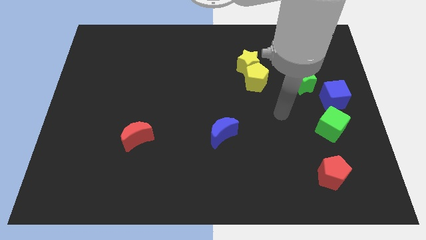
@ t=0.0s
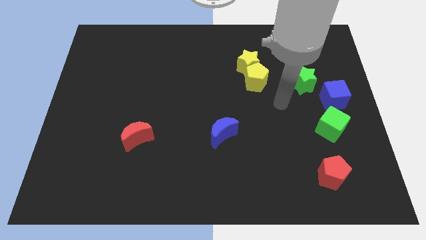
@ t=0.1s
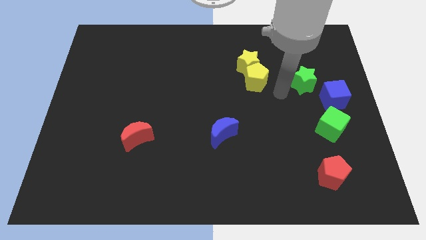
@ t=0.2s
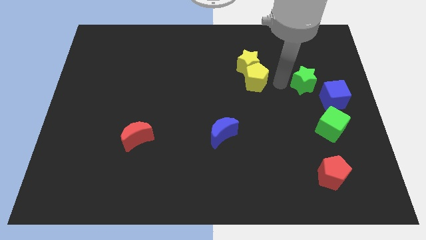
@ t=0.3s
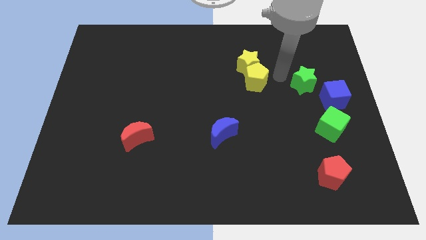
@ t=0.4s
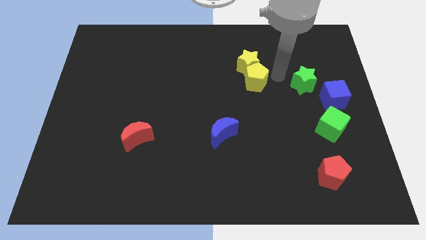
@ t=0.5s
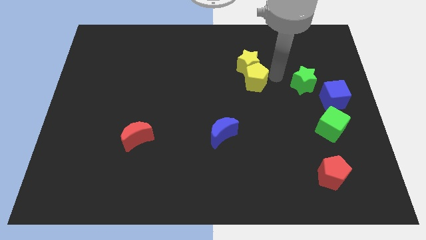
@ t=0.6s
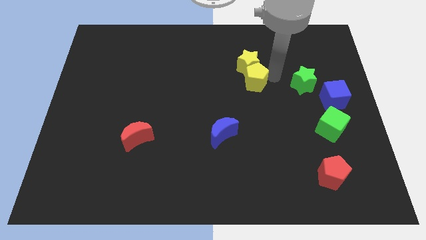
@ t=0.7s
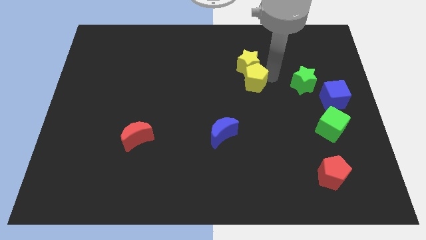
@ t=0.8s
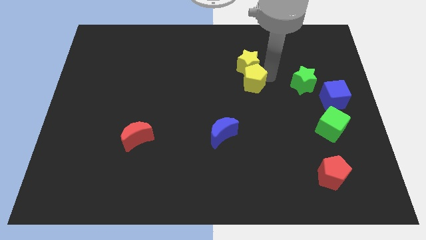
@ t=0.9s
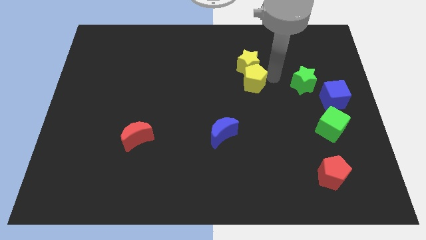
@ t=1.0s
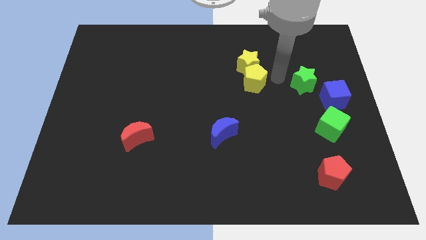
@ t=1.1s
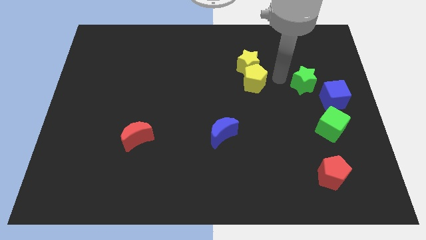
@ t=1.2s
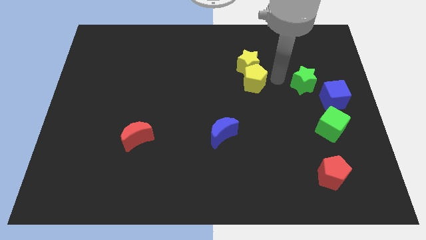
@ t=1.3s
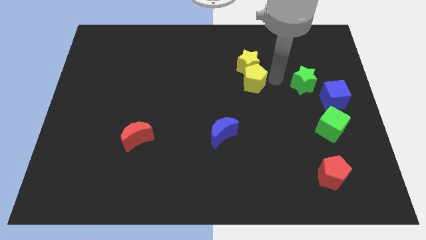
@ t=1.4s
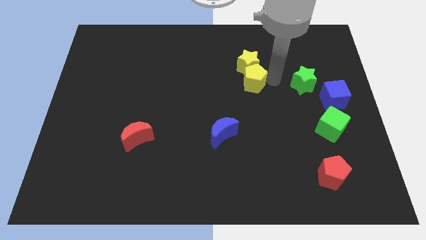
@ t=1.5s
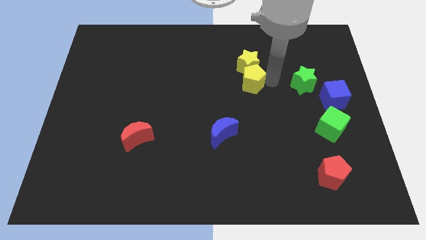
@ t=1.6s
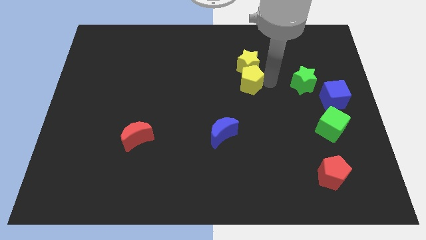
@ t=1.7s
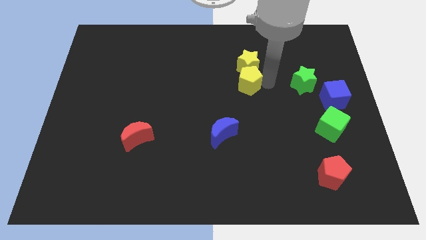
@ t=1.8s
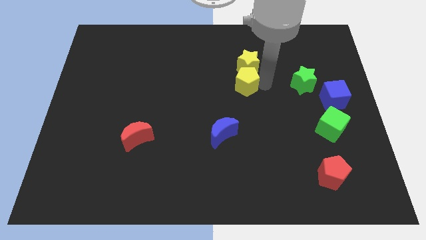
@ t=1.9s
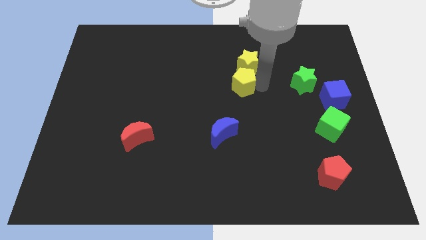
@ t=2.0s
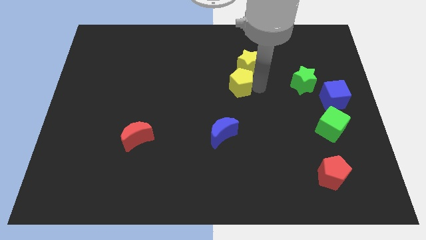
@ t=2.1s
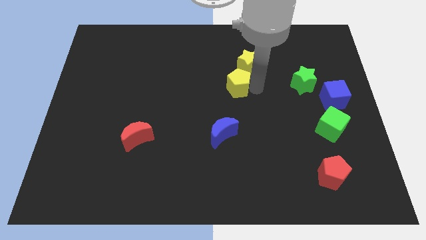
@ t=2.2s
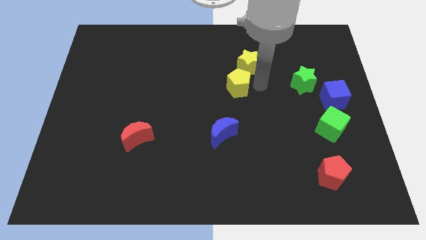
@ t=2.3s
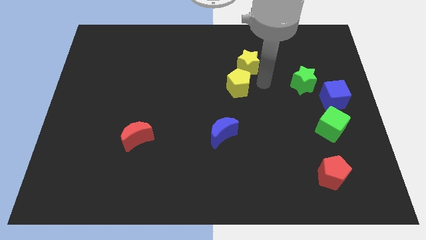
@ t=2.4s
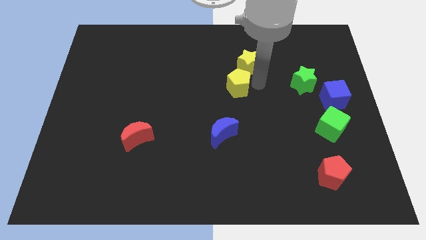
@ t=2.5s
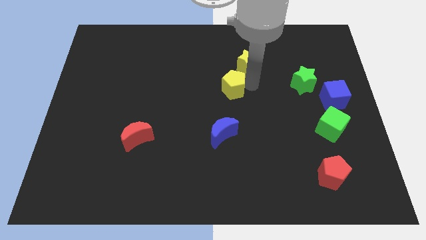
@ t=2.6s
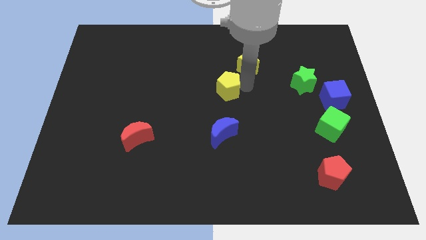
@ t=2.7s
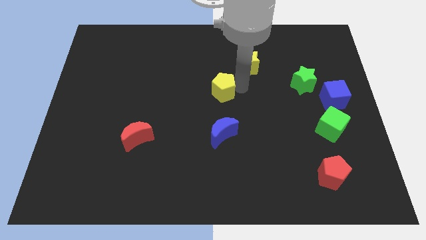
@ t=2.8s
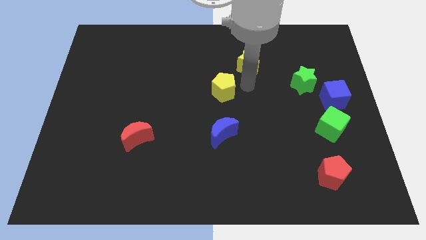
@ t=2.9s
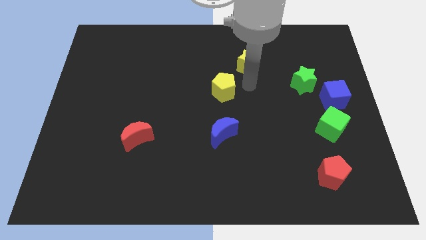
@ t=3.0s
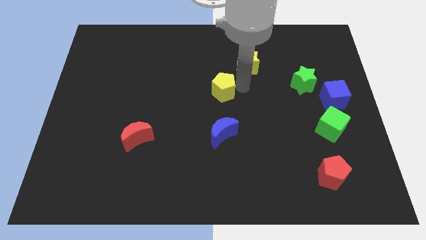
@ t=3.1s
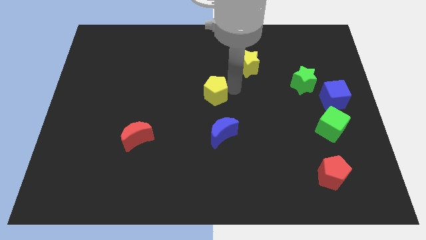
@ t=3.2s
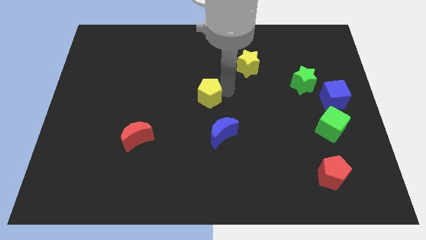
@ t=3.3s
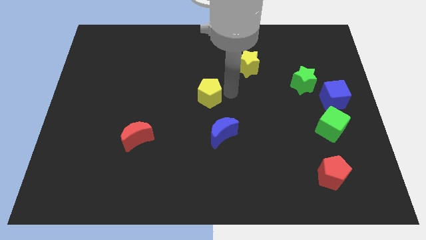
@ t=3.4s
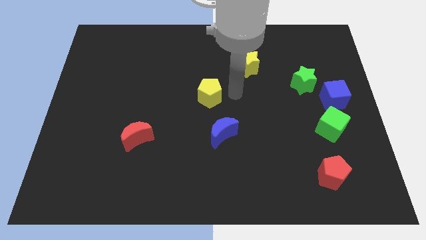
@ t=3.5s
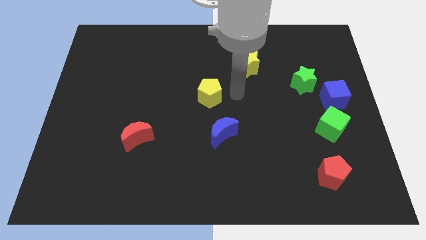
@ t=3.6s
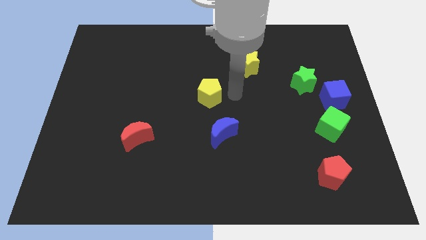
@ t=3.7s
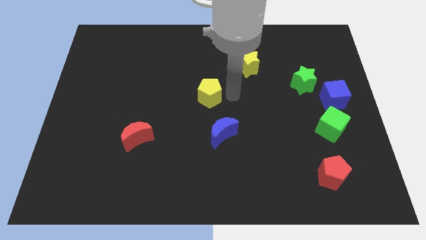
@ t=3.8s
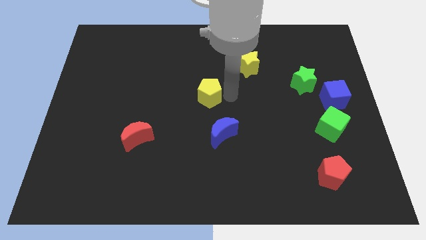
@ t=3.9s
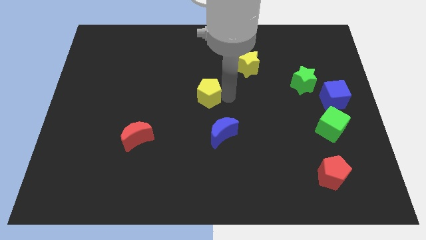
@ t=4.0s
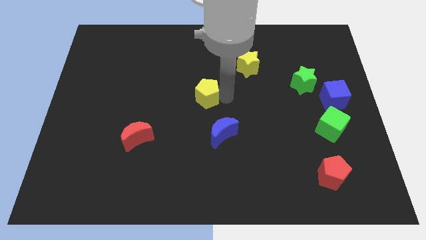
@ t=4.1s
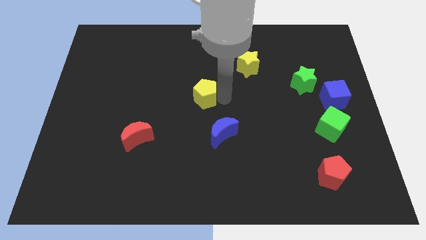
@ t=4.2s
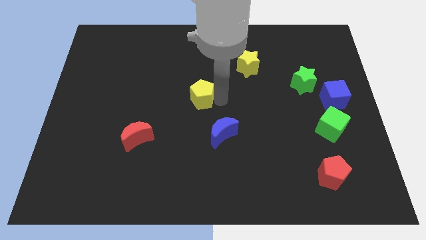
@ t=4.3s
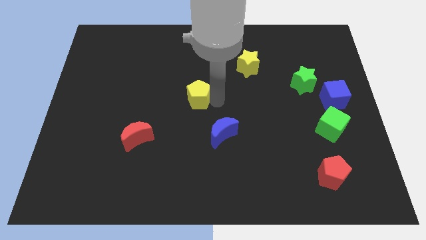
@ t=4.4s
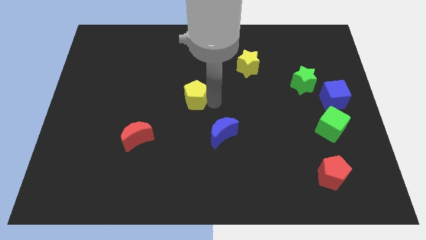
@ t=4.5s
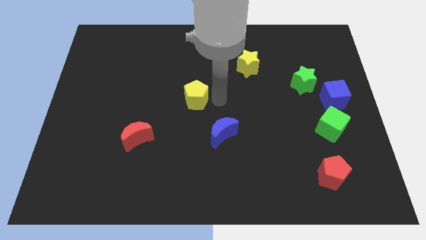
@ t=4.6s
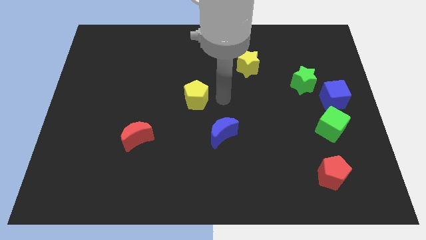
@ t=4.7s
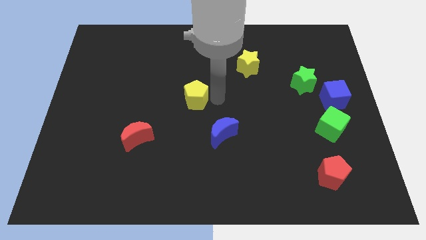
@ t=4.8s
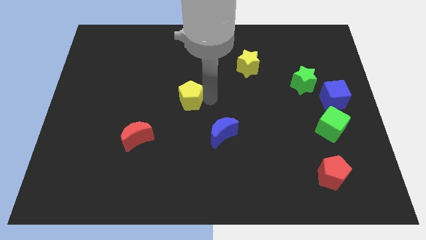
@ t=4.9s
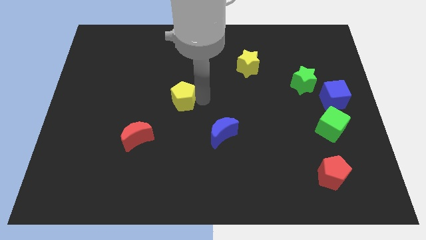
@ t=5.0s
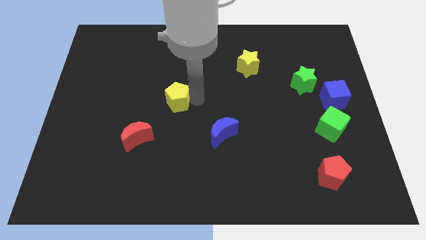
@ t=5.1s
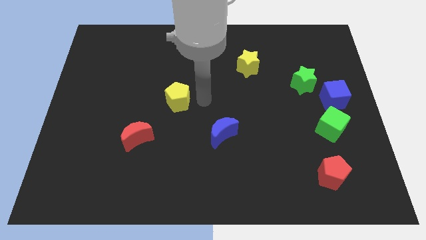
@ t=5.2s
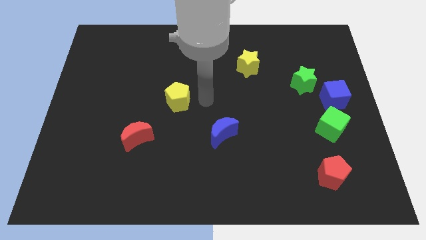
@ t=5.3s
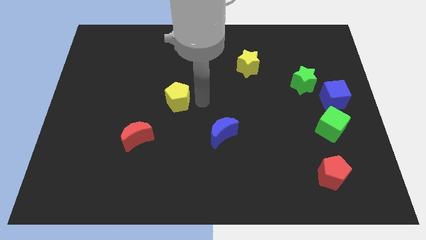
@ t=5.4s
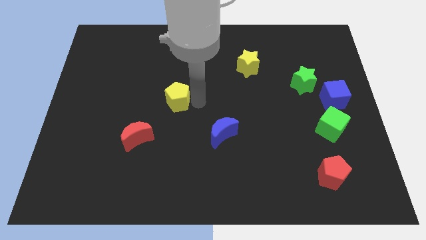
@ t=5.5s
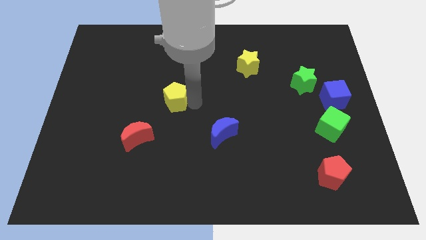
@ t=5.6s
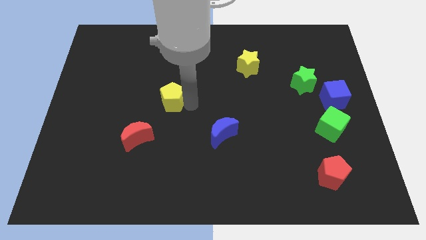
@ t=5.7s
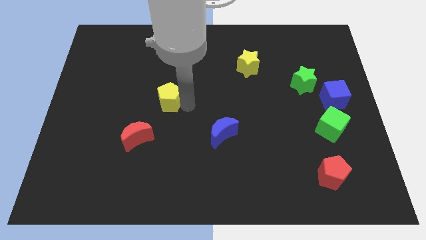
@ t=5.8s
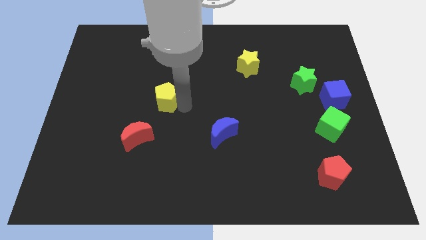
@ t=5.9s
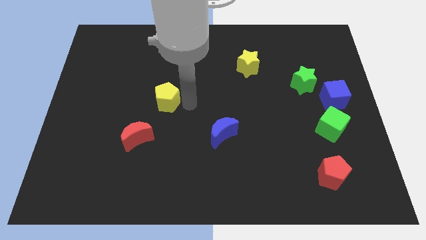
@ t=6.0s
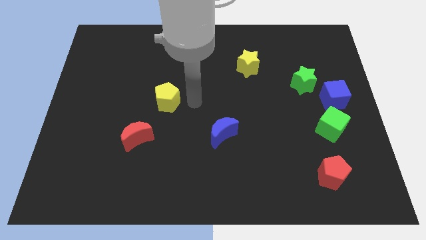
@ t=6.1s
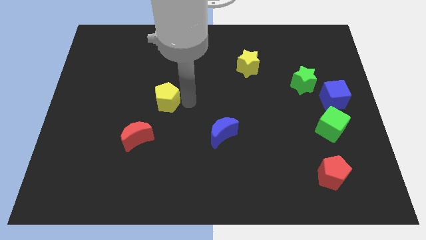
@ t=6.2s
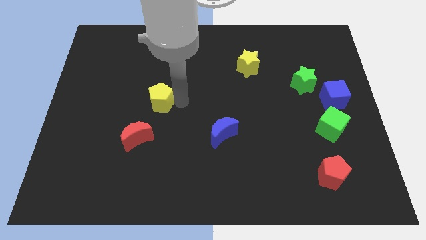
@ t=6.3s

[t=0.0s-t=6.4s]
slide the yellow pentagon to the top of the red moon

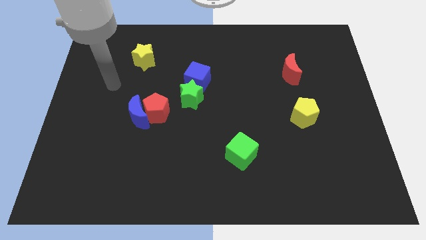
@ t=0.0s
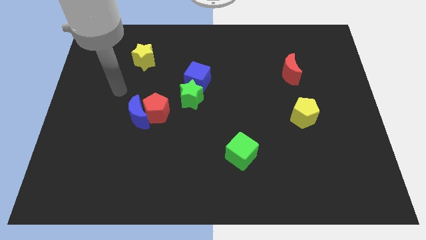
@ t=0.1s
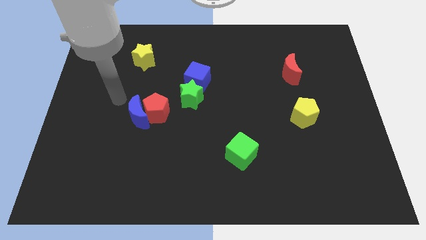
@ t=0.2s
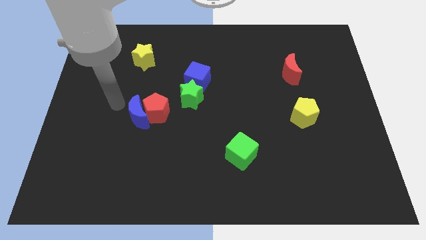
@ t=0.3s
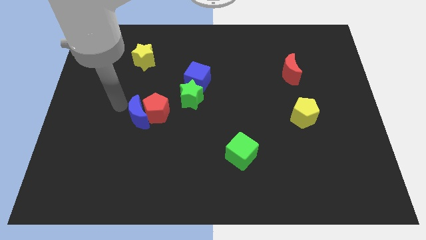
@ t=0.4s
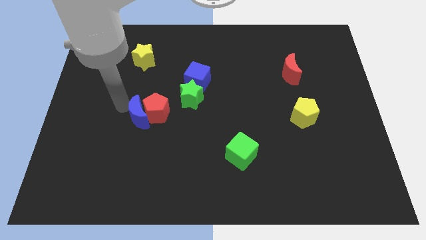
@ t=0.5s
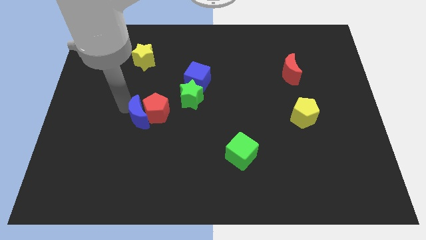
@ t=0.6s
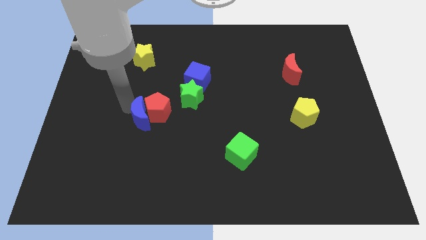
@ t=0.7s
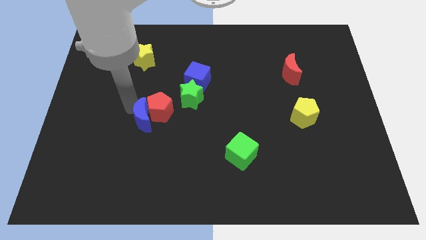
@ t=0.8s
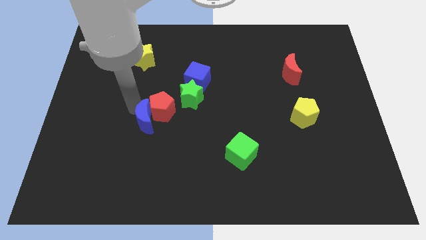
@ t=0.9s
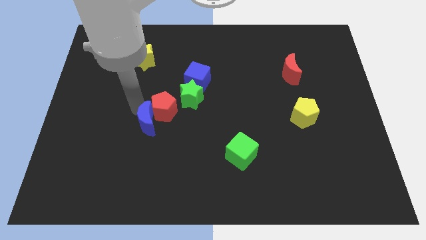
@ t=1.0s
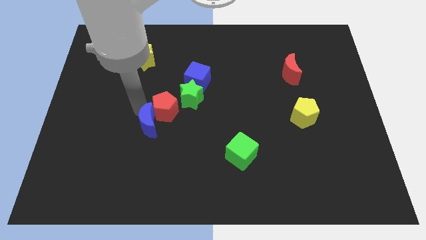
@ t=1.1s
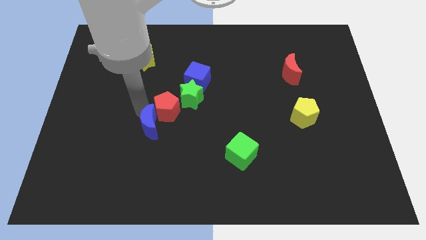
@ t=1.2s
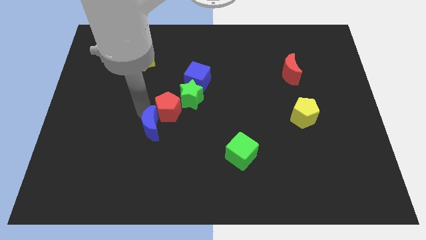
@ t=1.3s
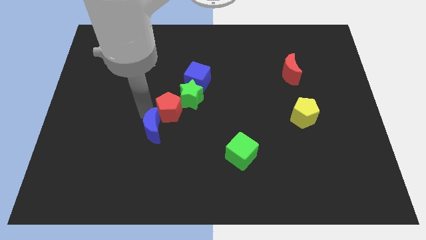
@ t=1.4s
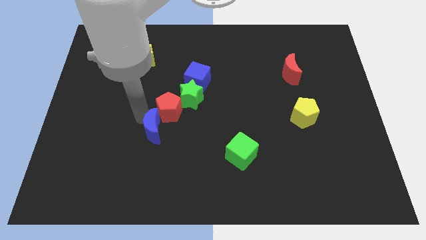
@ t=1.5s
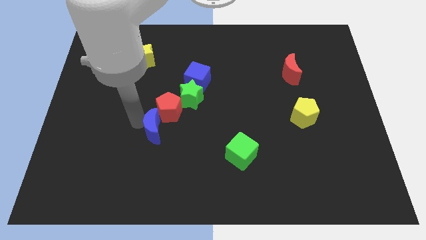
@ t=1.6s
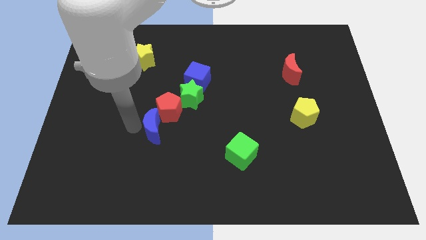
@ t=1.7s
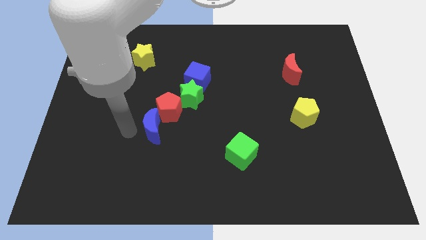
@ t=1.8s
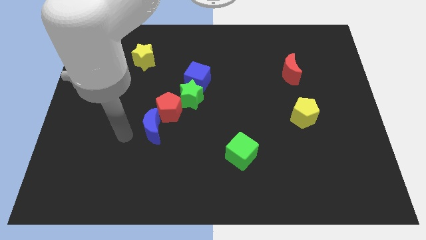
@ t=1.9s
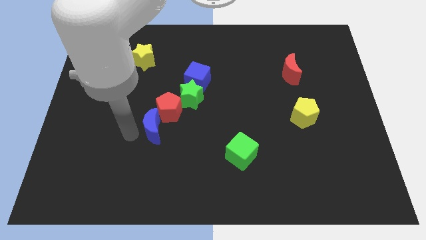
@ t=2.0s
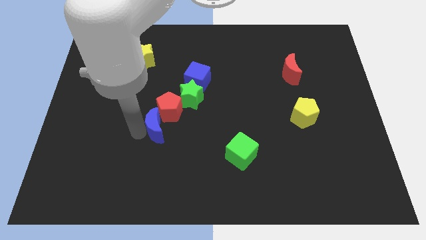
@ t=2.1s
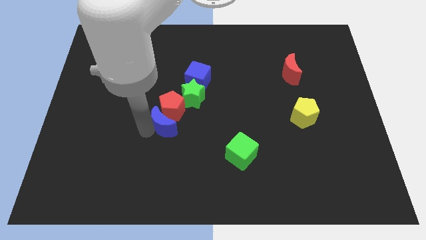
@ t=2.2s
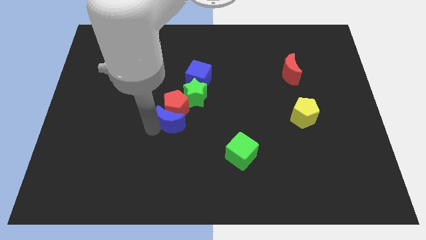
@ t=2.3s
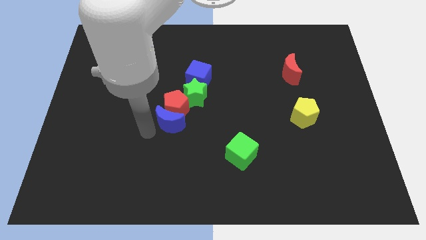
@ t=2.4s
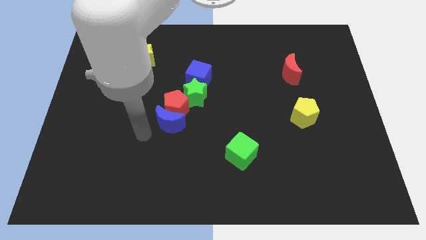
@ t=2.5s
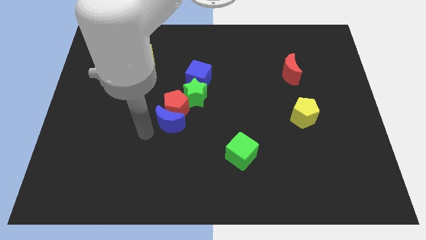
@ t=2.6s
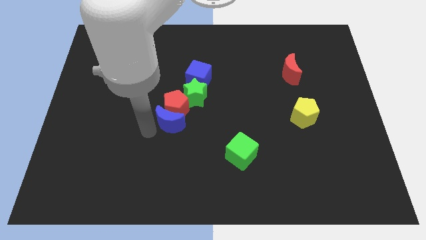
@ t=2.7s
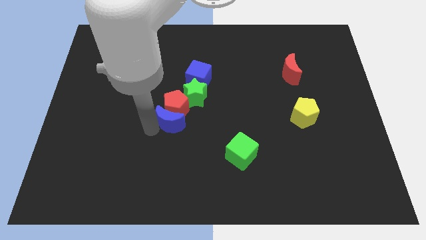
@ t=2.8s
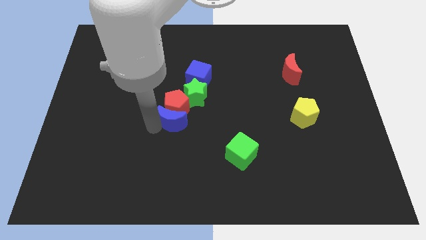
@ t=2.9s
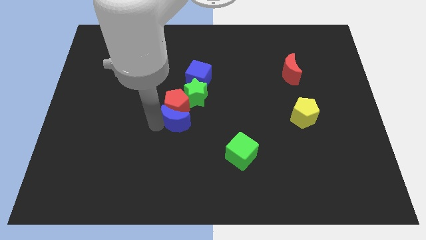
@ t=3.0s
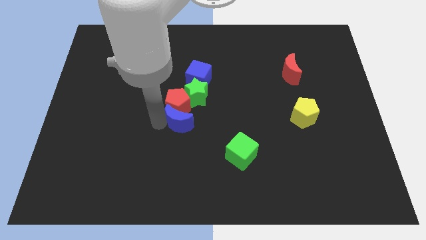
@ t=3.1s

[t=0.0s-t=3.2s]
move the blue moon below the blue cube
